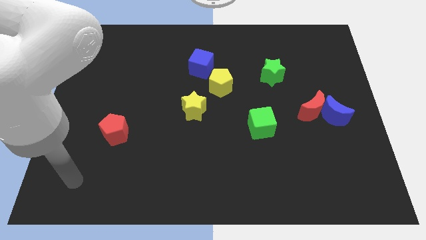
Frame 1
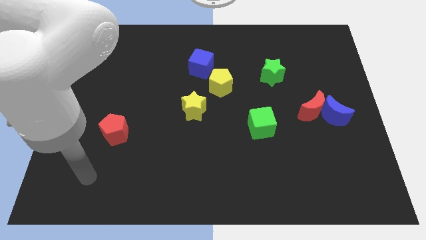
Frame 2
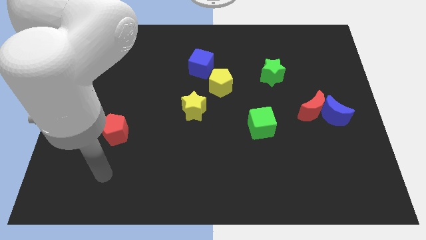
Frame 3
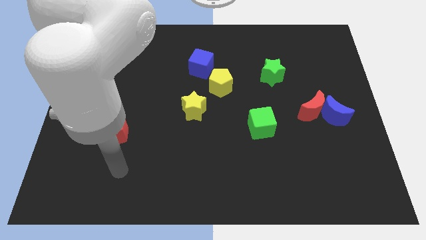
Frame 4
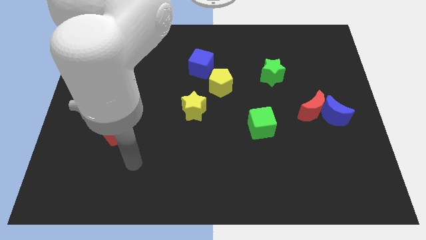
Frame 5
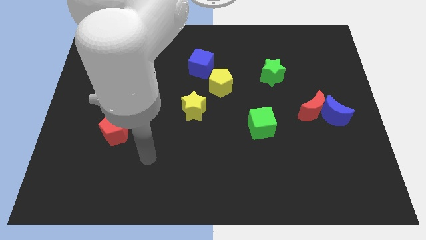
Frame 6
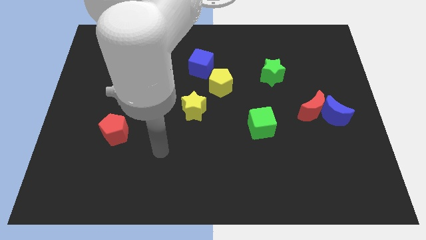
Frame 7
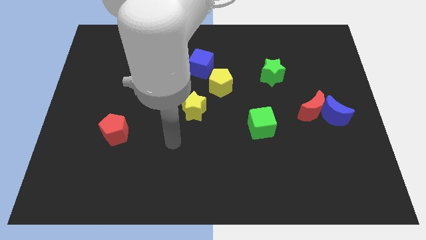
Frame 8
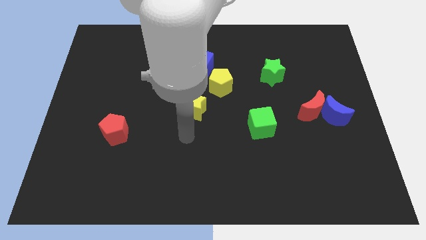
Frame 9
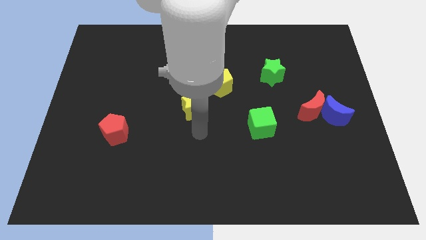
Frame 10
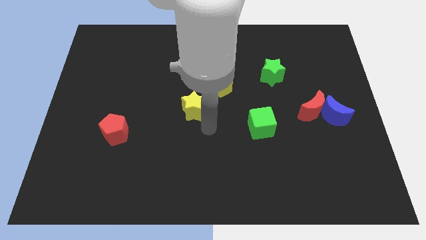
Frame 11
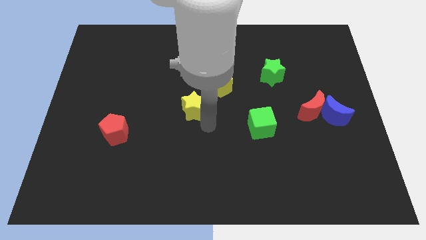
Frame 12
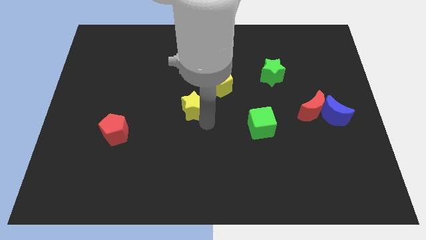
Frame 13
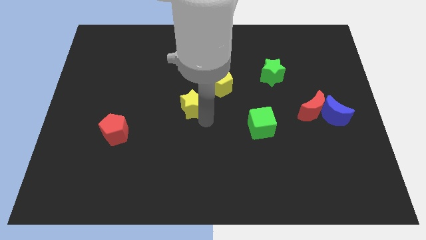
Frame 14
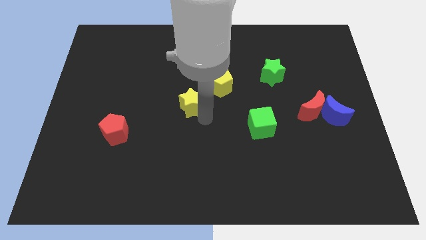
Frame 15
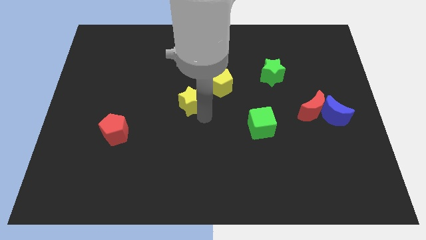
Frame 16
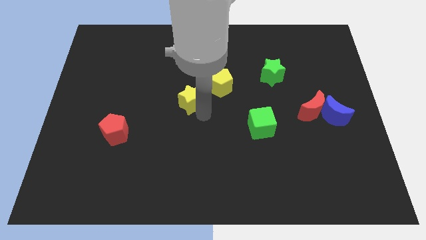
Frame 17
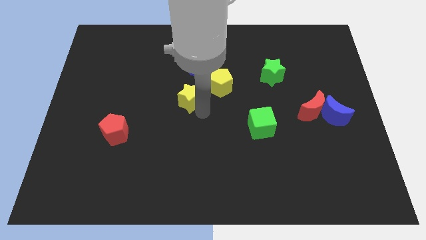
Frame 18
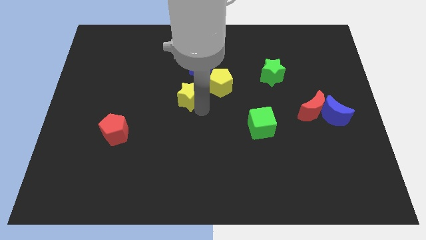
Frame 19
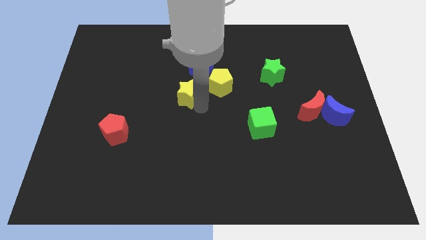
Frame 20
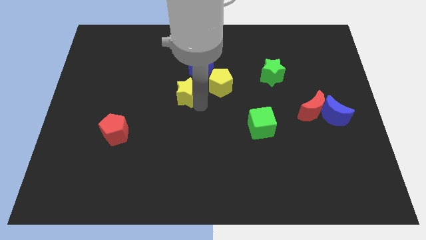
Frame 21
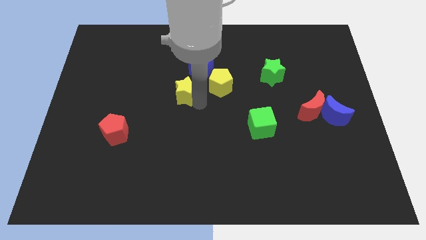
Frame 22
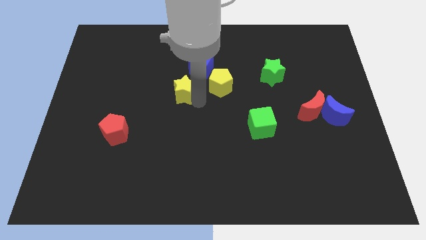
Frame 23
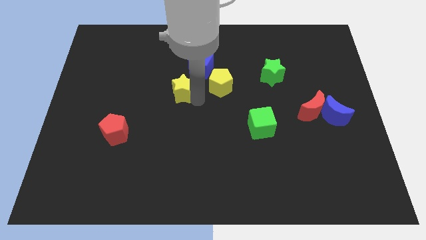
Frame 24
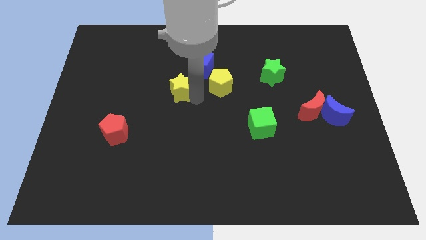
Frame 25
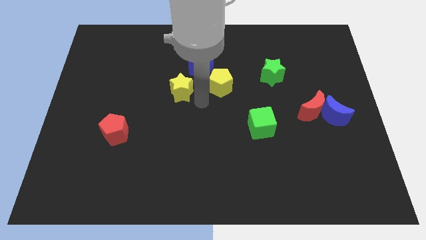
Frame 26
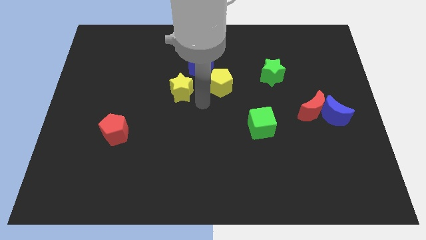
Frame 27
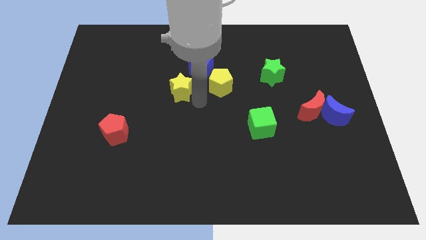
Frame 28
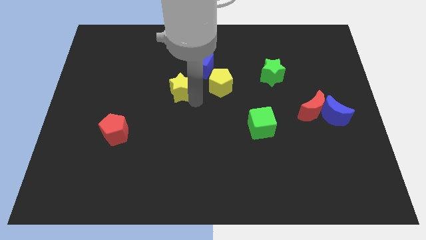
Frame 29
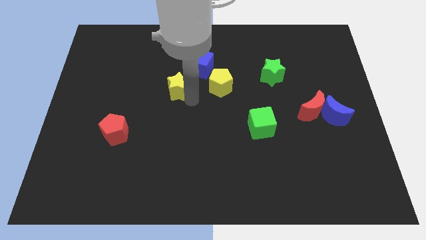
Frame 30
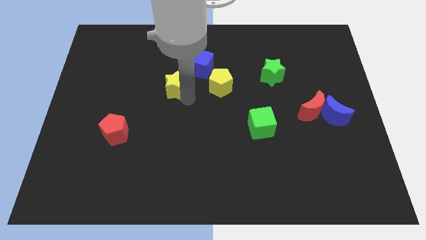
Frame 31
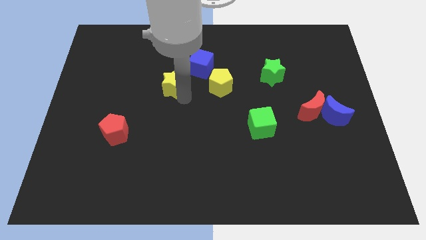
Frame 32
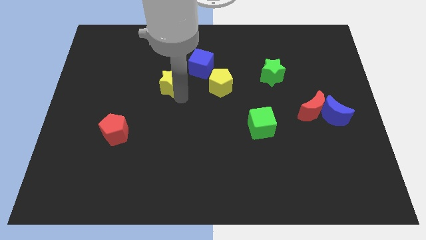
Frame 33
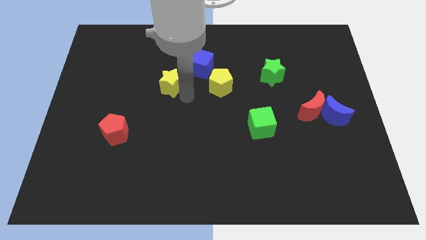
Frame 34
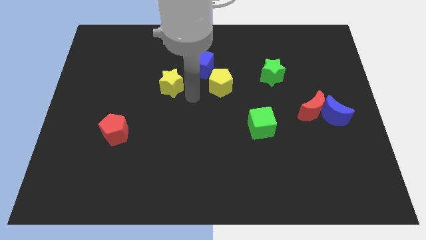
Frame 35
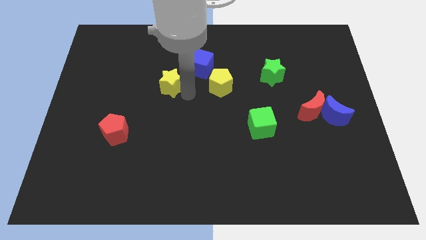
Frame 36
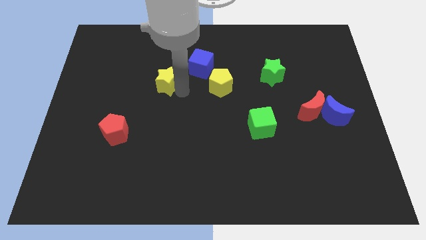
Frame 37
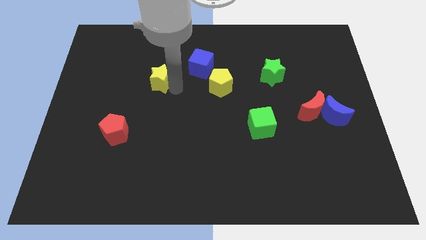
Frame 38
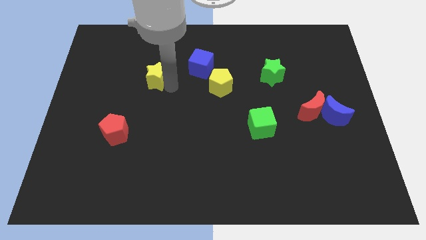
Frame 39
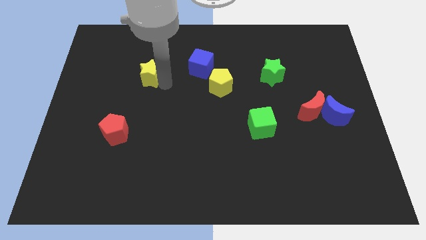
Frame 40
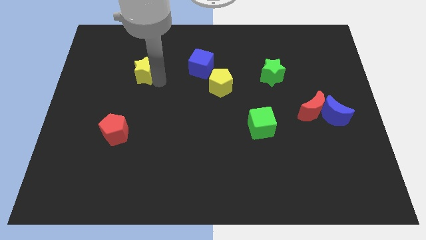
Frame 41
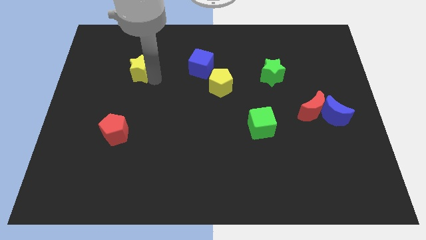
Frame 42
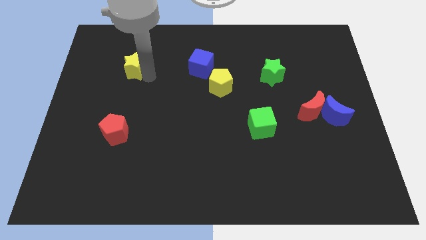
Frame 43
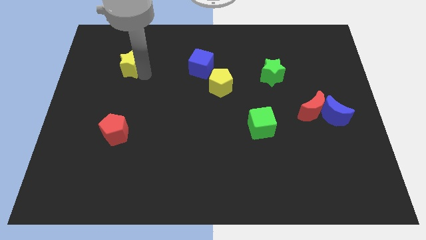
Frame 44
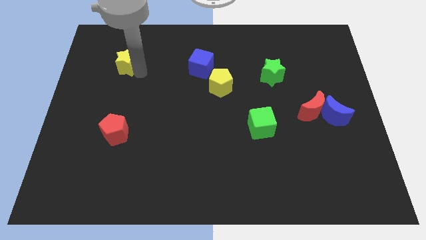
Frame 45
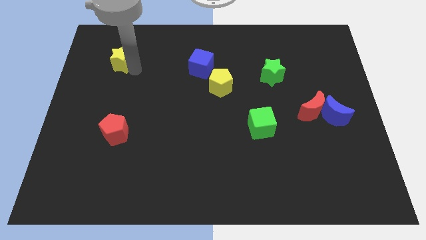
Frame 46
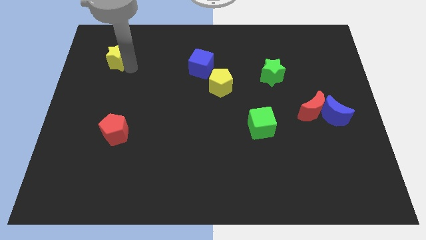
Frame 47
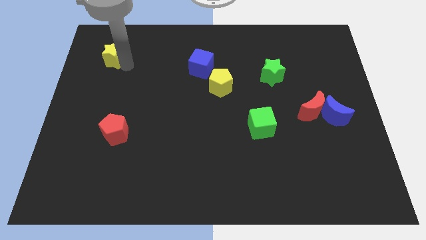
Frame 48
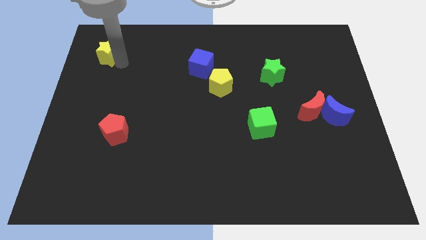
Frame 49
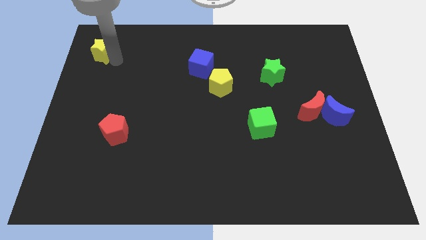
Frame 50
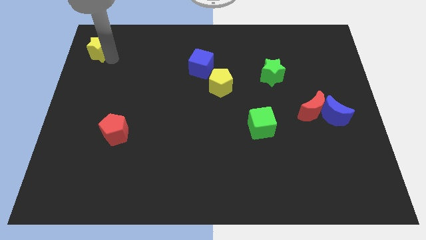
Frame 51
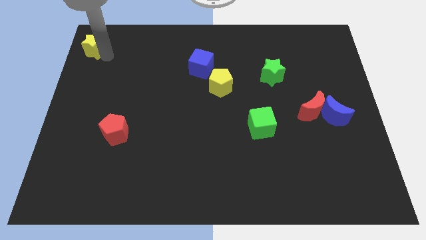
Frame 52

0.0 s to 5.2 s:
put the yellow star to the top left

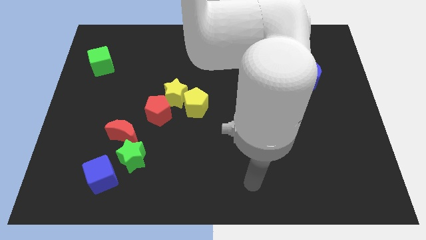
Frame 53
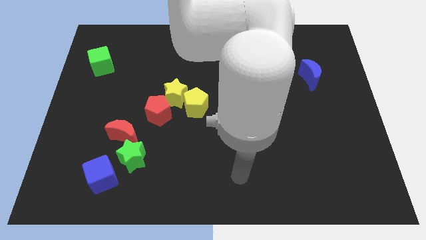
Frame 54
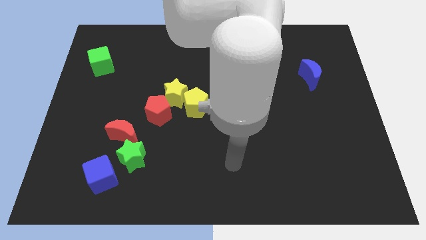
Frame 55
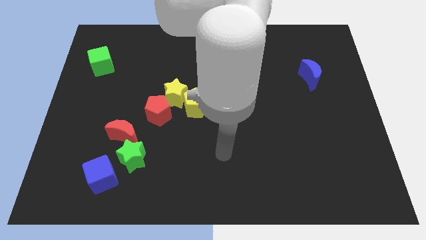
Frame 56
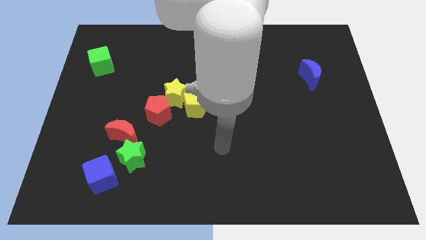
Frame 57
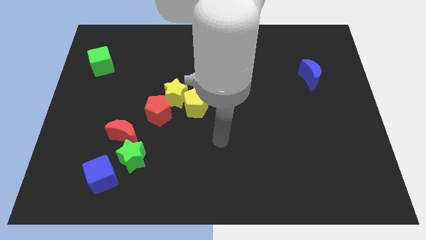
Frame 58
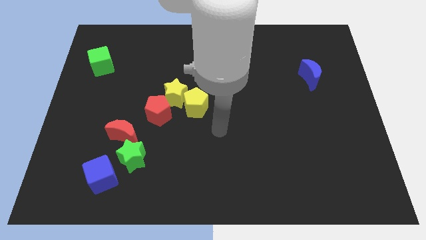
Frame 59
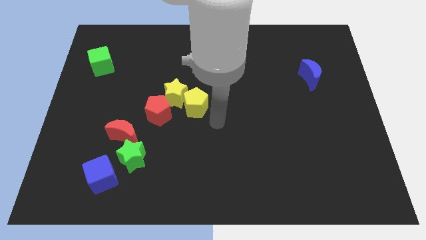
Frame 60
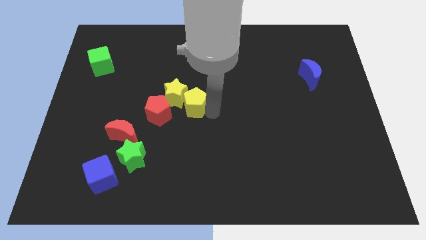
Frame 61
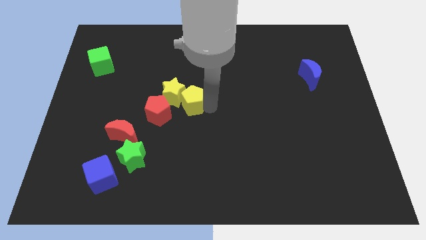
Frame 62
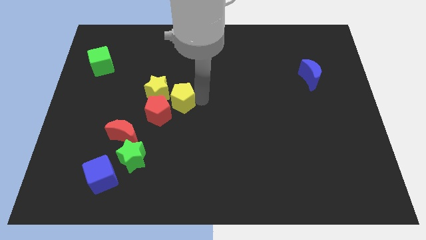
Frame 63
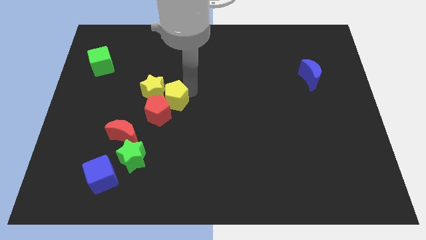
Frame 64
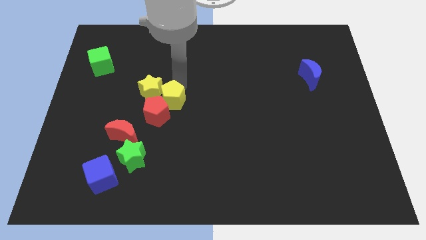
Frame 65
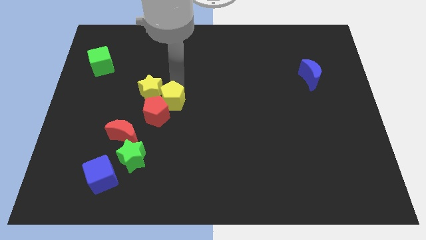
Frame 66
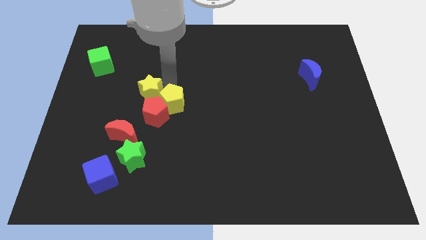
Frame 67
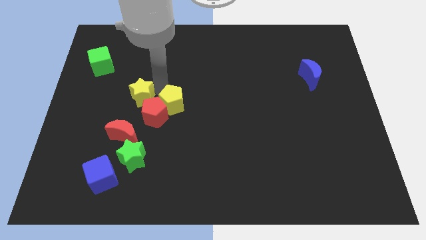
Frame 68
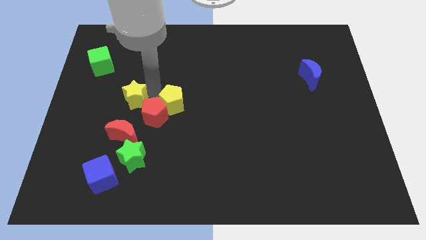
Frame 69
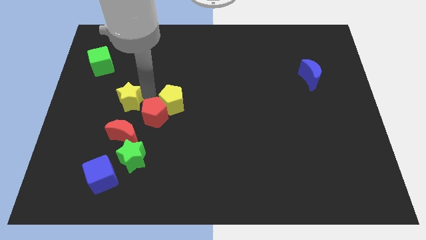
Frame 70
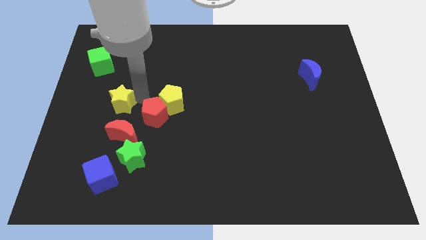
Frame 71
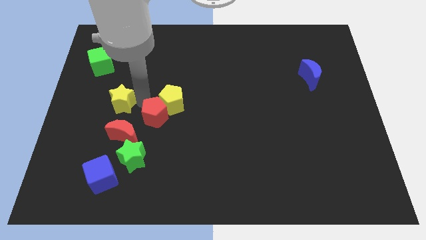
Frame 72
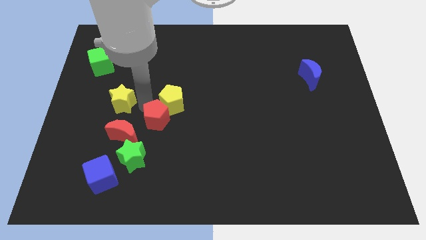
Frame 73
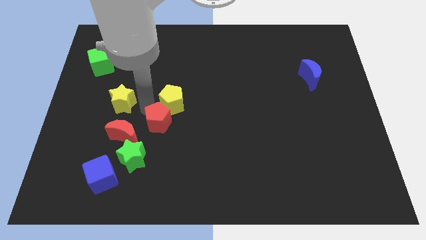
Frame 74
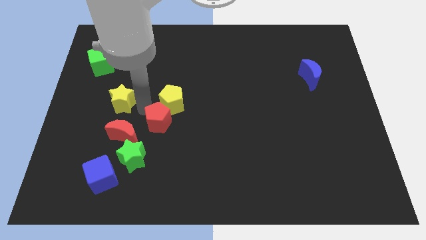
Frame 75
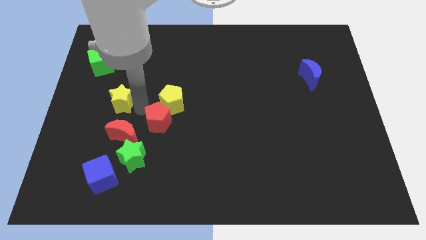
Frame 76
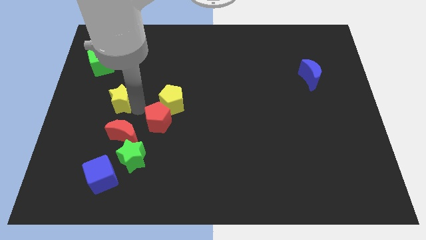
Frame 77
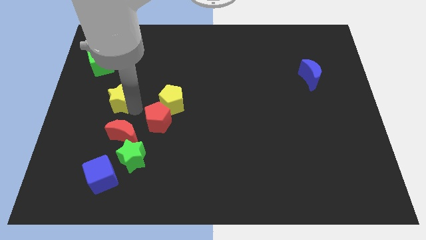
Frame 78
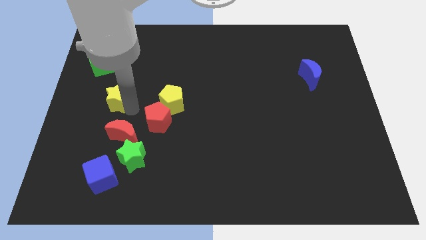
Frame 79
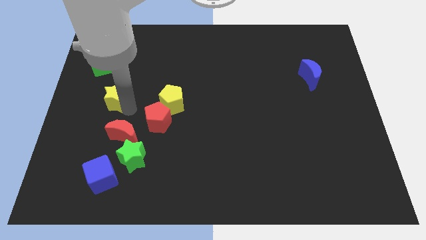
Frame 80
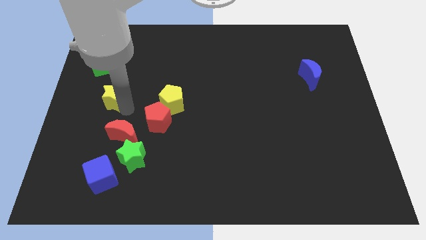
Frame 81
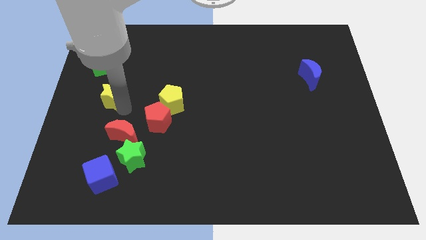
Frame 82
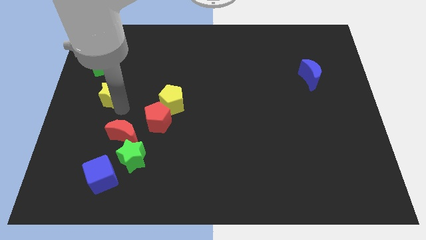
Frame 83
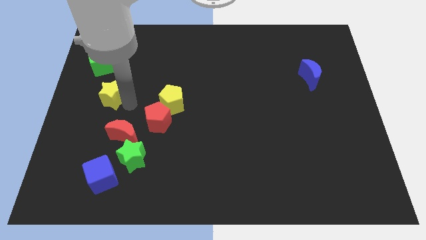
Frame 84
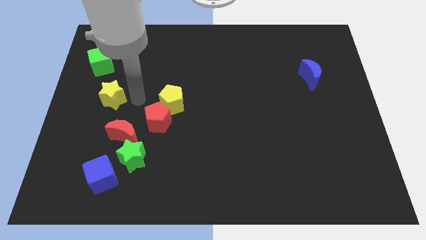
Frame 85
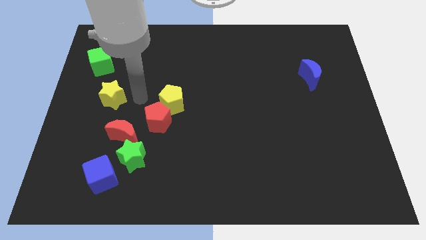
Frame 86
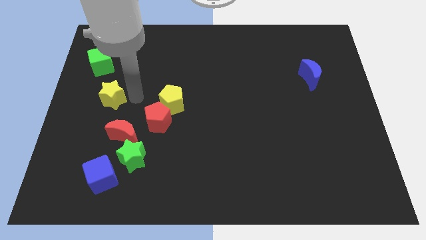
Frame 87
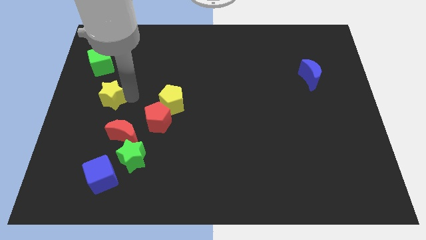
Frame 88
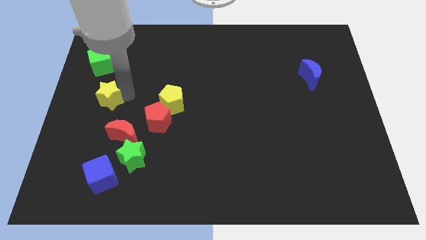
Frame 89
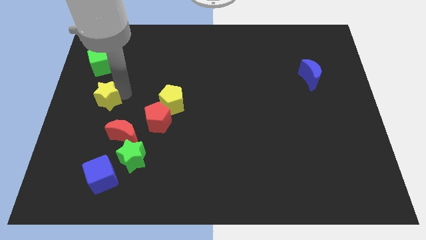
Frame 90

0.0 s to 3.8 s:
slide the yellow star to the left side of the board
